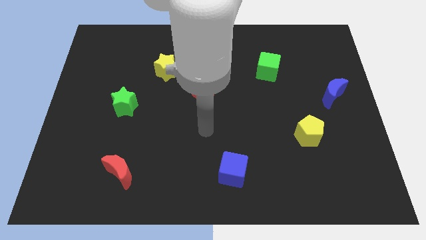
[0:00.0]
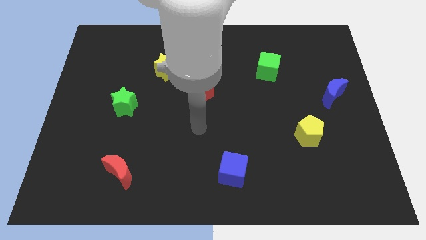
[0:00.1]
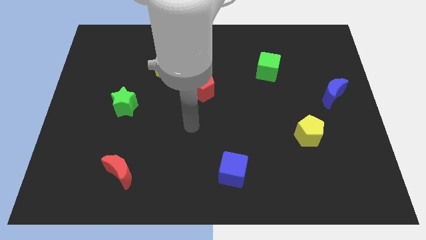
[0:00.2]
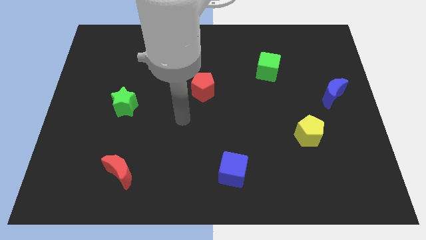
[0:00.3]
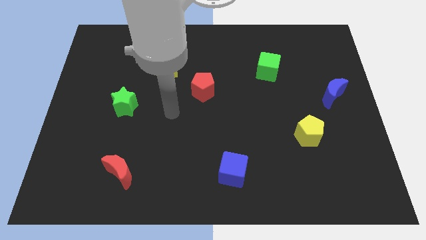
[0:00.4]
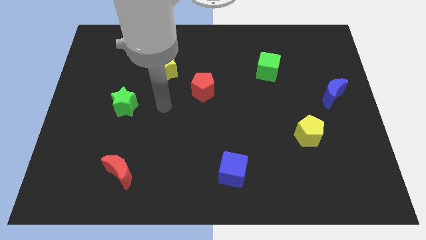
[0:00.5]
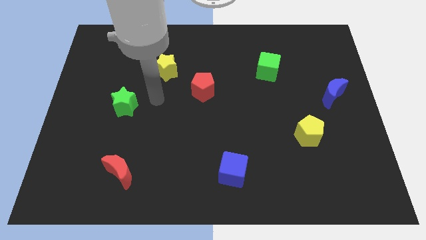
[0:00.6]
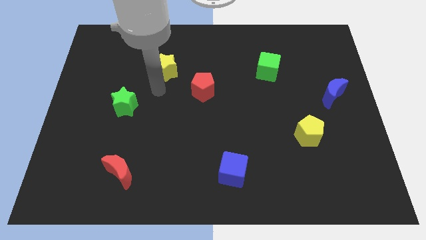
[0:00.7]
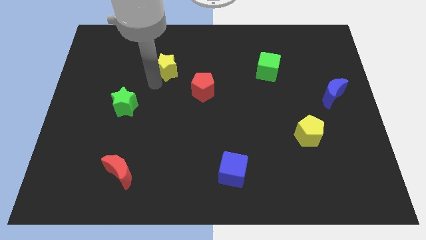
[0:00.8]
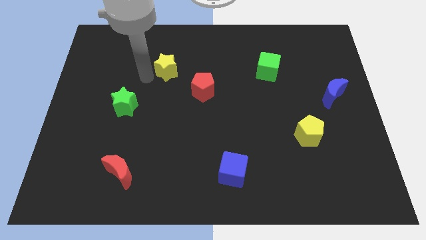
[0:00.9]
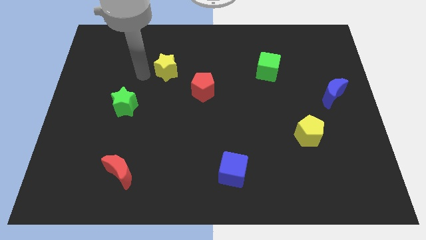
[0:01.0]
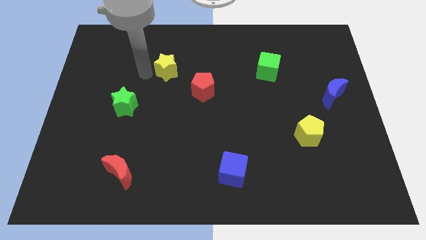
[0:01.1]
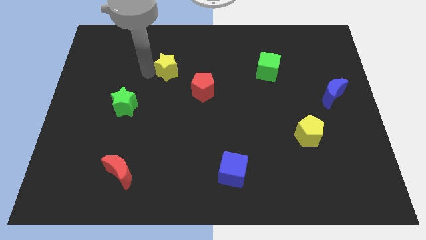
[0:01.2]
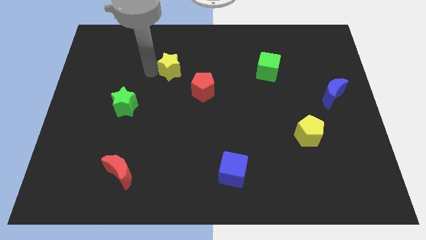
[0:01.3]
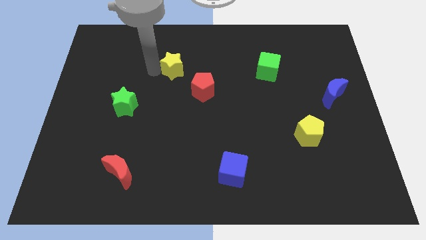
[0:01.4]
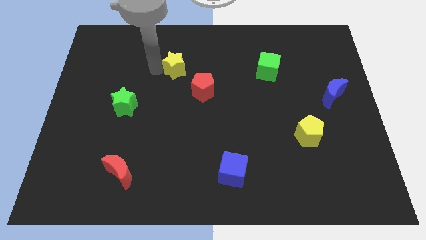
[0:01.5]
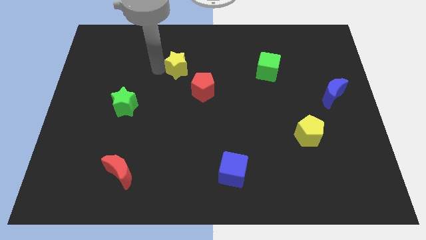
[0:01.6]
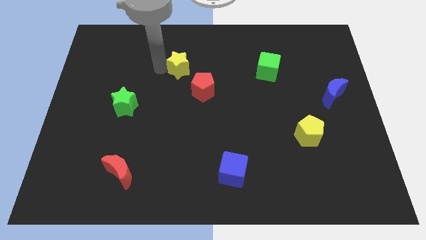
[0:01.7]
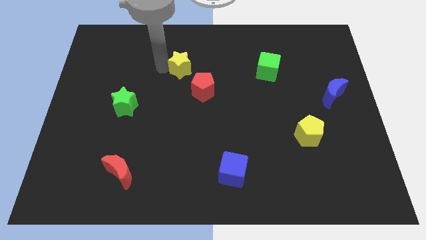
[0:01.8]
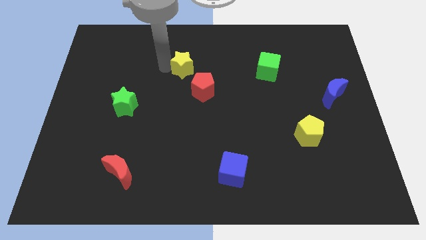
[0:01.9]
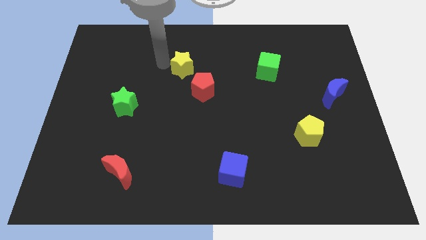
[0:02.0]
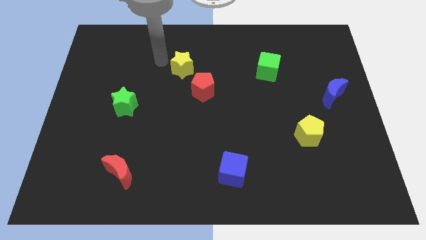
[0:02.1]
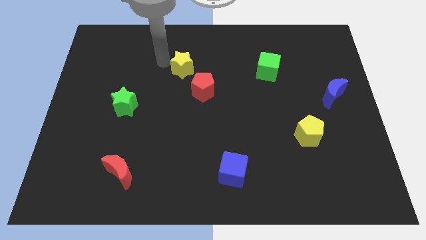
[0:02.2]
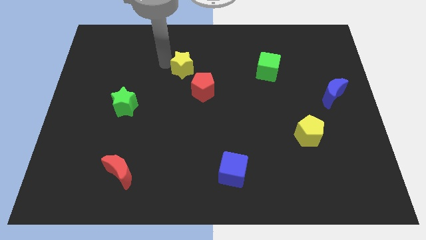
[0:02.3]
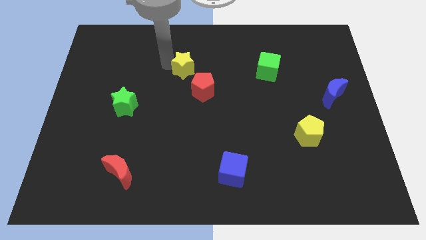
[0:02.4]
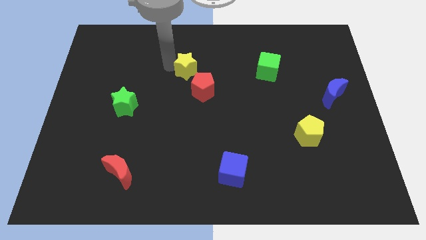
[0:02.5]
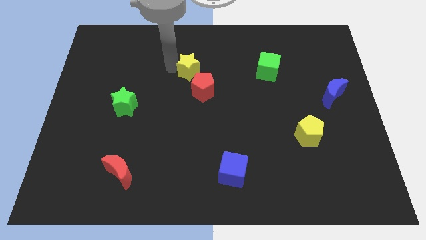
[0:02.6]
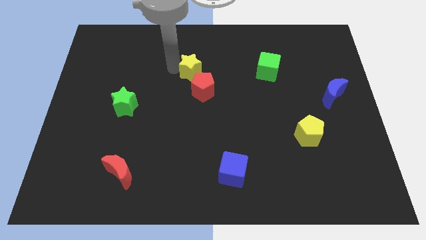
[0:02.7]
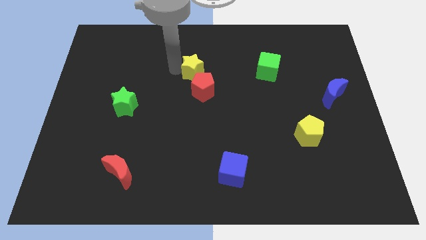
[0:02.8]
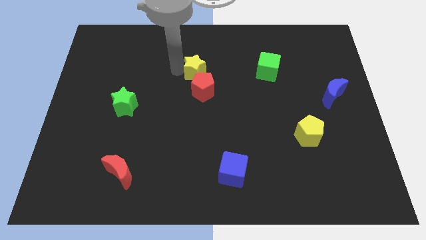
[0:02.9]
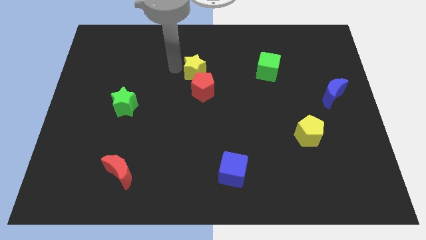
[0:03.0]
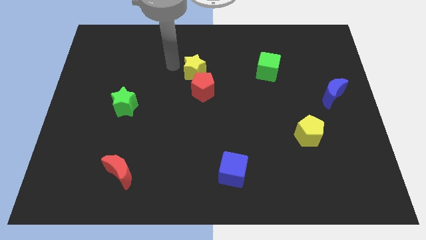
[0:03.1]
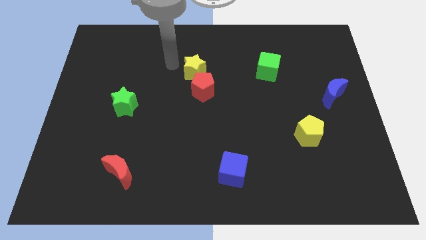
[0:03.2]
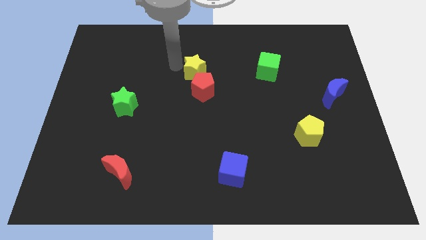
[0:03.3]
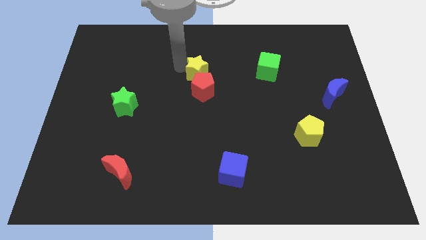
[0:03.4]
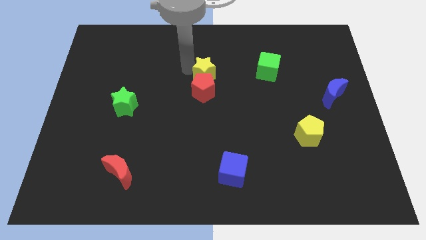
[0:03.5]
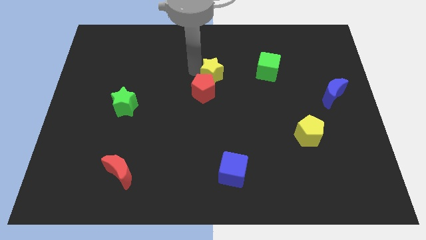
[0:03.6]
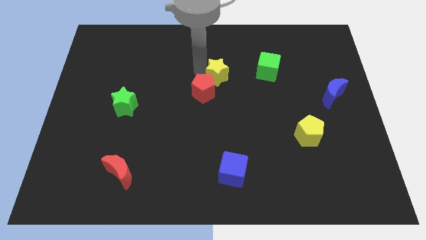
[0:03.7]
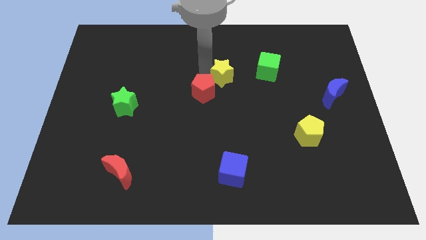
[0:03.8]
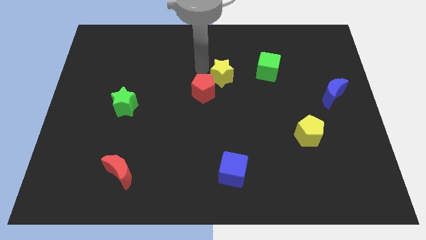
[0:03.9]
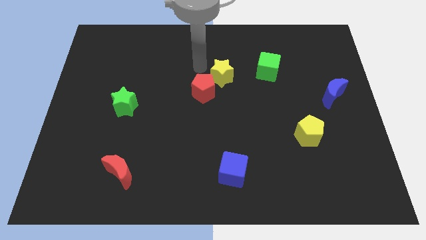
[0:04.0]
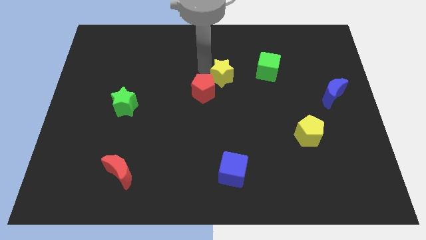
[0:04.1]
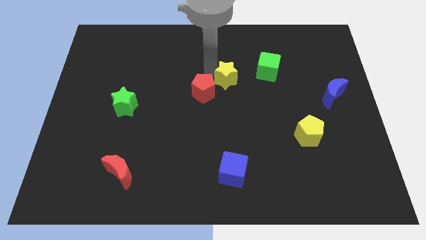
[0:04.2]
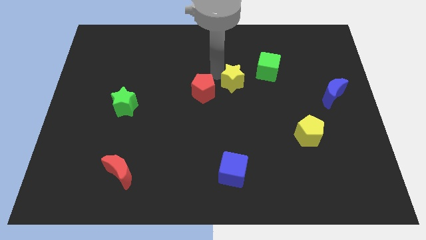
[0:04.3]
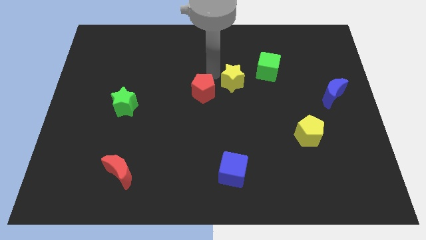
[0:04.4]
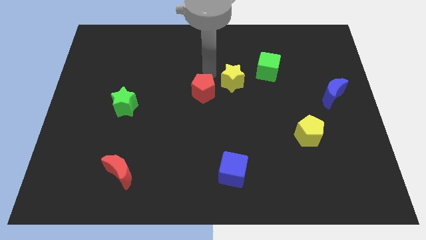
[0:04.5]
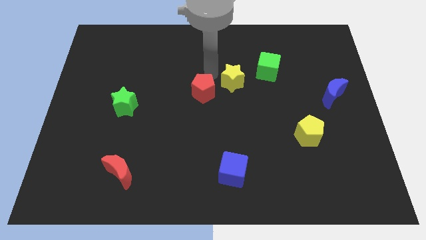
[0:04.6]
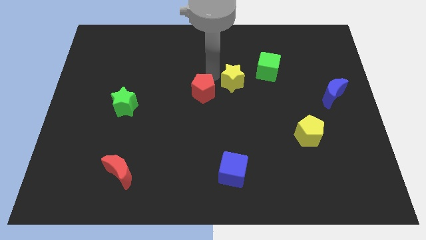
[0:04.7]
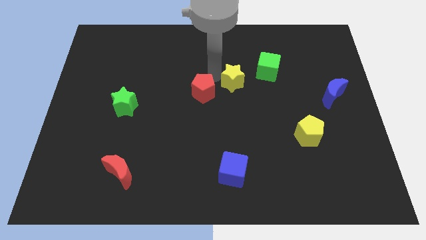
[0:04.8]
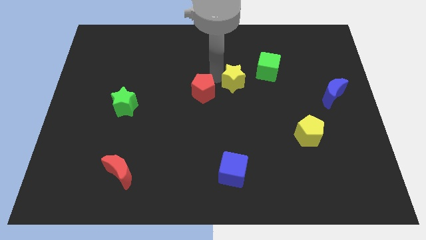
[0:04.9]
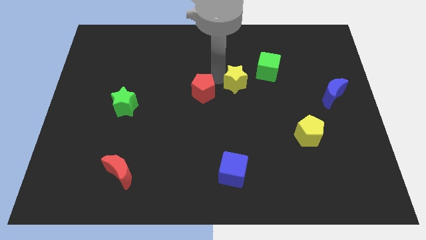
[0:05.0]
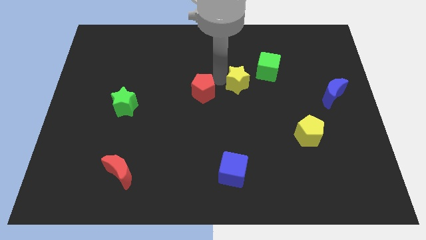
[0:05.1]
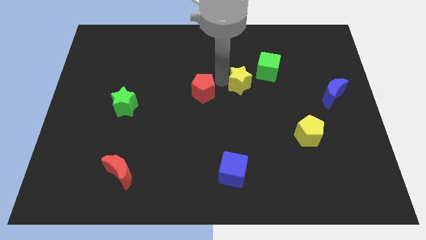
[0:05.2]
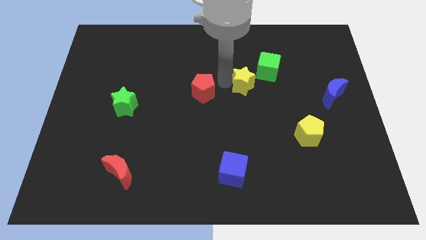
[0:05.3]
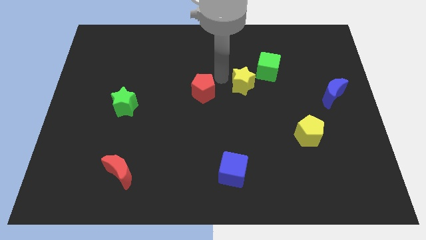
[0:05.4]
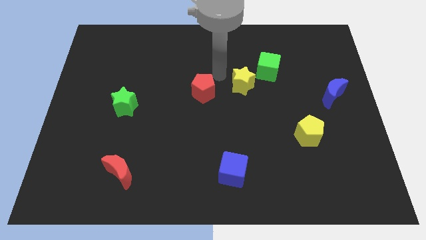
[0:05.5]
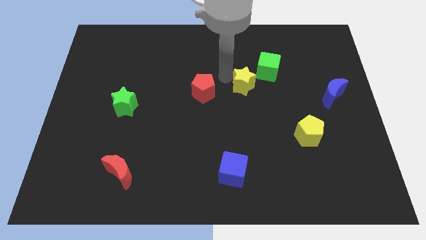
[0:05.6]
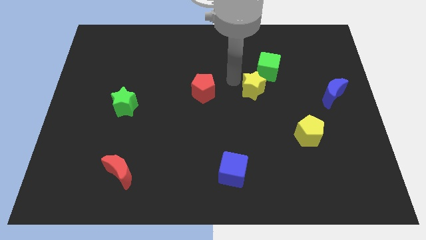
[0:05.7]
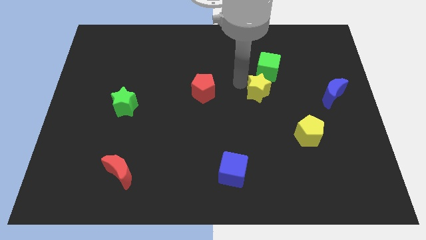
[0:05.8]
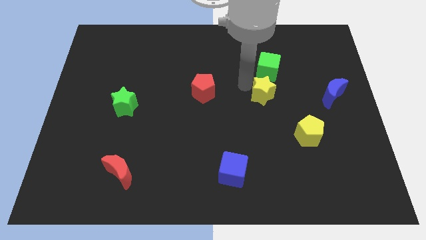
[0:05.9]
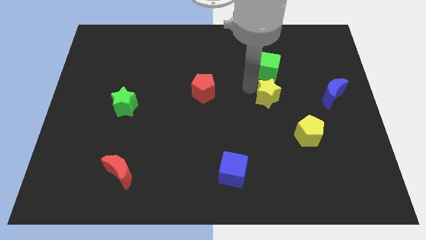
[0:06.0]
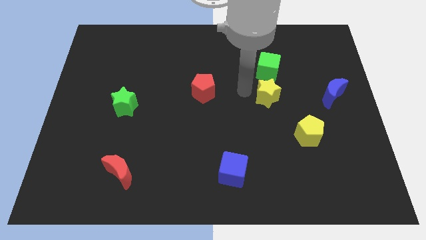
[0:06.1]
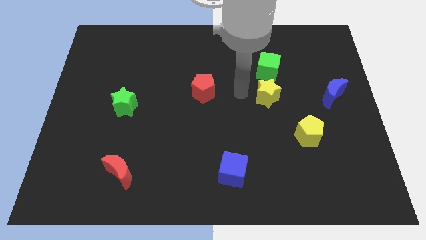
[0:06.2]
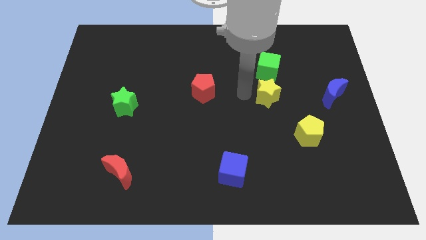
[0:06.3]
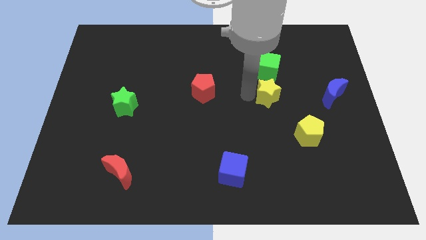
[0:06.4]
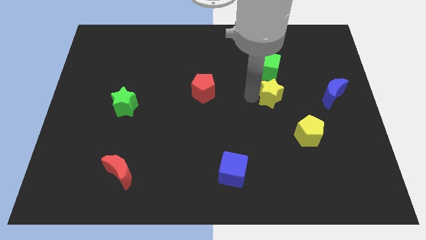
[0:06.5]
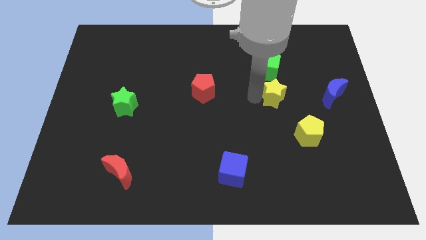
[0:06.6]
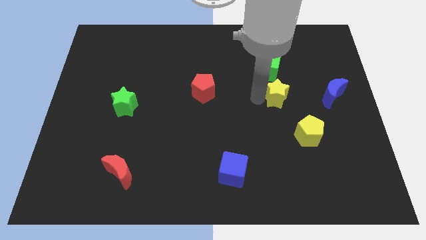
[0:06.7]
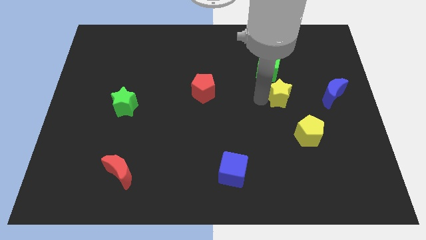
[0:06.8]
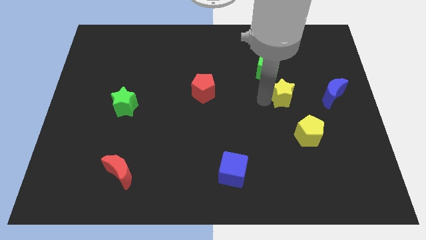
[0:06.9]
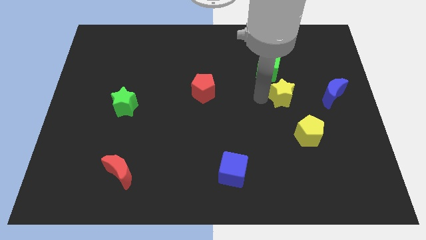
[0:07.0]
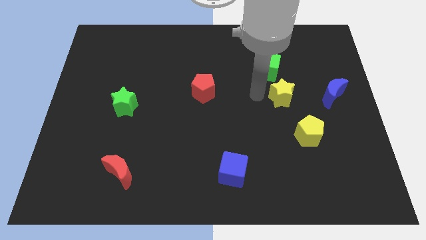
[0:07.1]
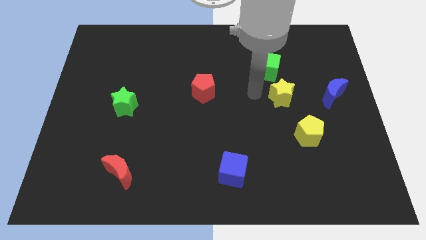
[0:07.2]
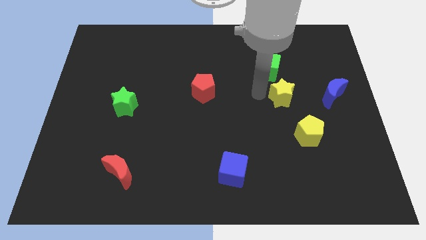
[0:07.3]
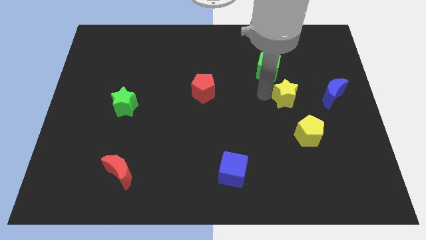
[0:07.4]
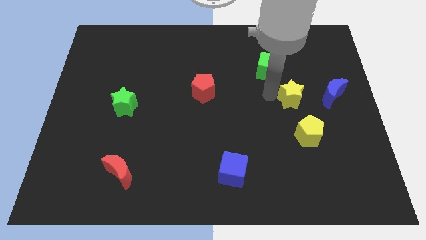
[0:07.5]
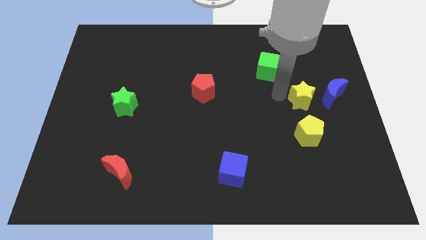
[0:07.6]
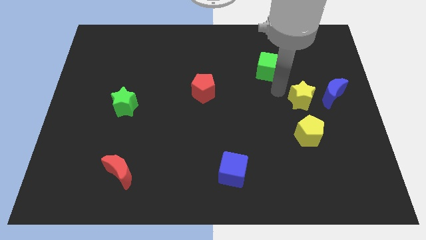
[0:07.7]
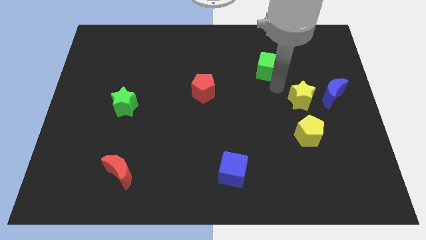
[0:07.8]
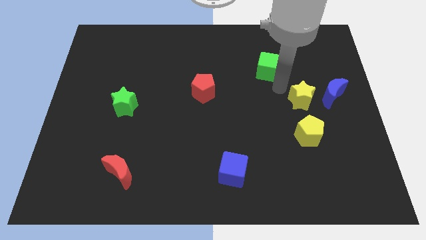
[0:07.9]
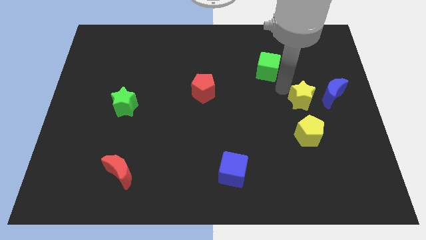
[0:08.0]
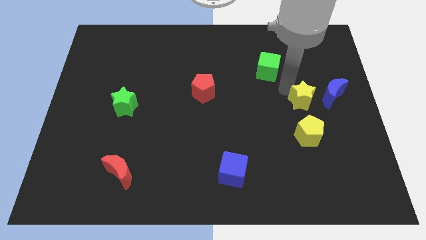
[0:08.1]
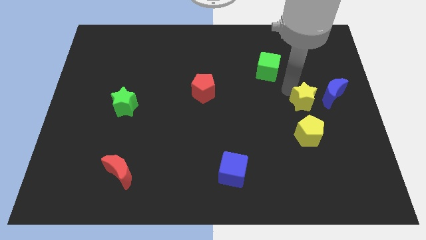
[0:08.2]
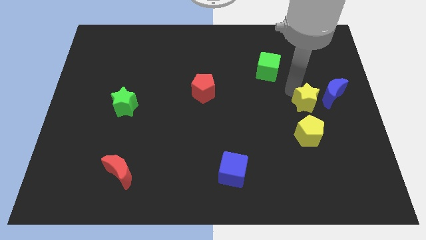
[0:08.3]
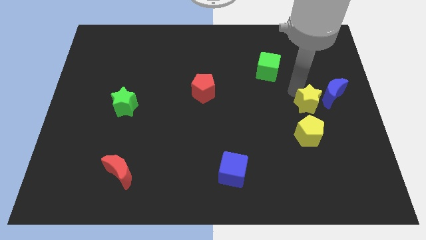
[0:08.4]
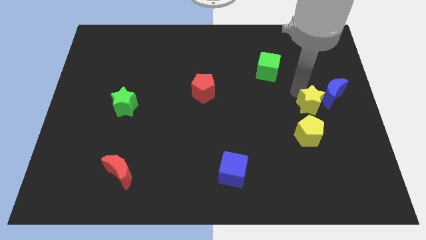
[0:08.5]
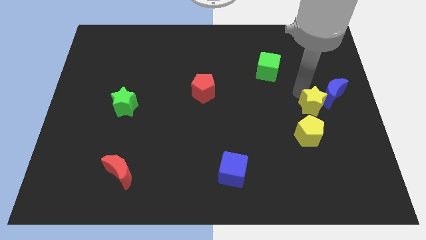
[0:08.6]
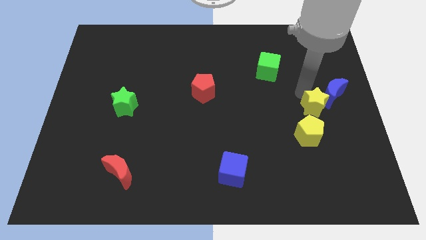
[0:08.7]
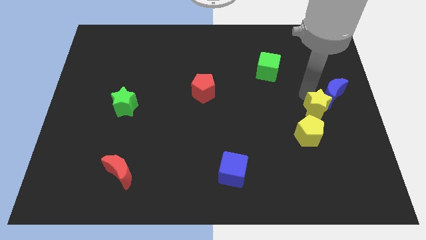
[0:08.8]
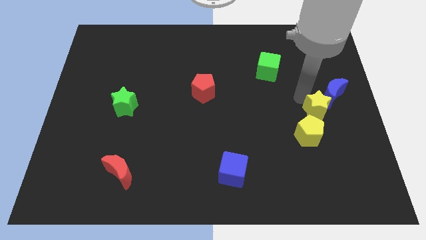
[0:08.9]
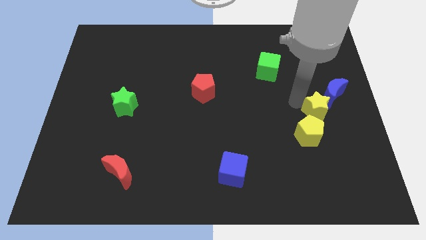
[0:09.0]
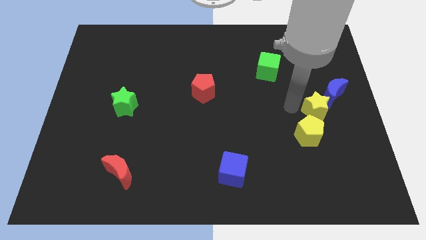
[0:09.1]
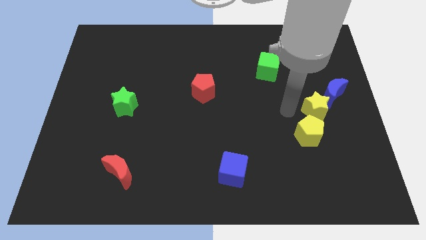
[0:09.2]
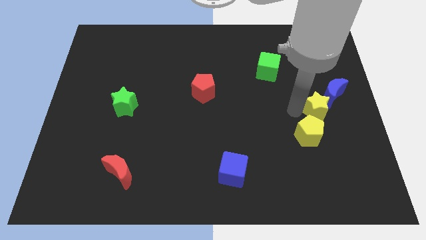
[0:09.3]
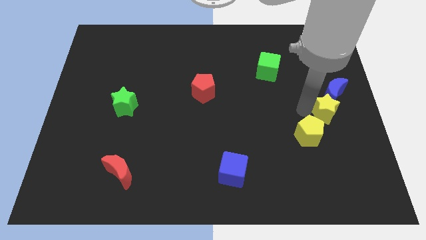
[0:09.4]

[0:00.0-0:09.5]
put the yellow star to the right side of the board
